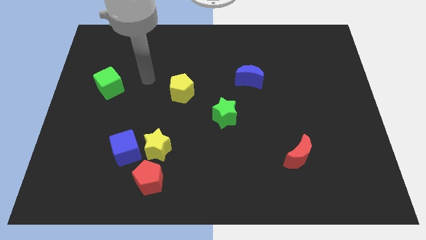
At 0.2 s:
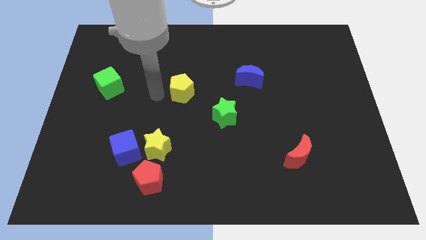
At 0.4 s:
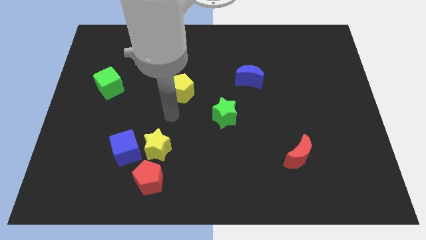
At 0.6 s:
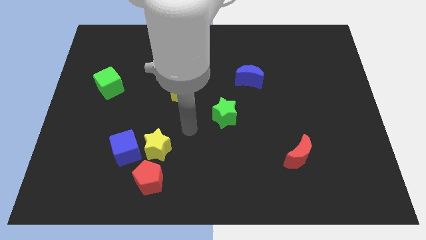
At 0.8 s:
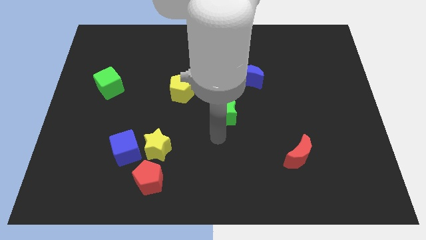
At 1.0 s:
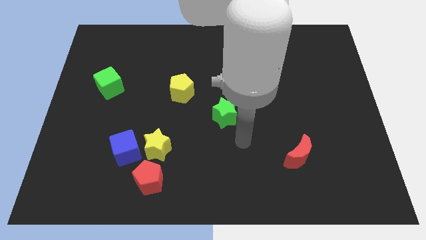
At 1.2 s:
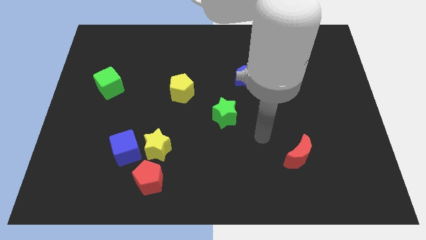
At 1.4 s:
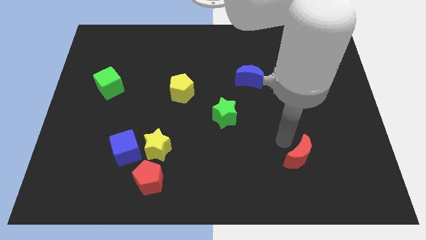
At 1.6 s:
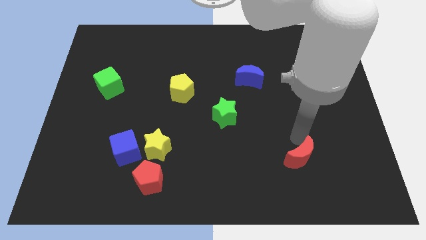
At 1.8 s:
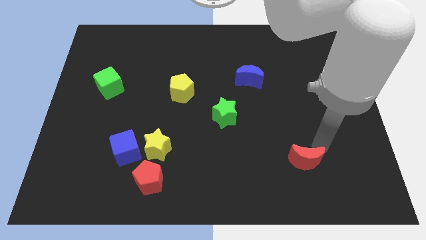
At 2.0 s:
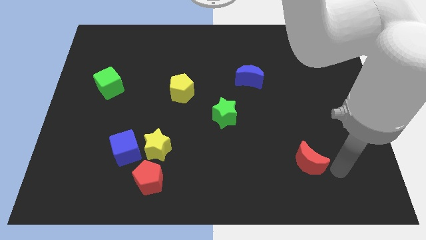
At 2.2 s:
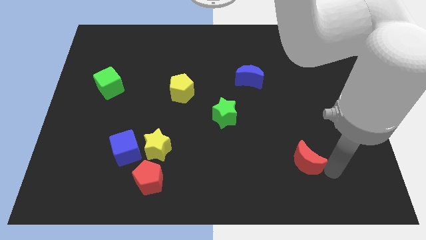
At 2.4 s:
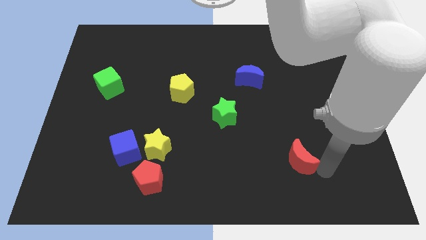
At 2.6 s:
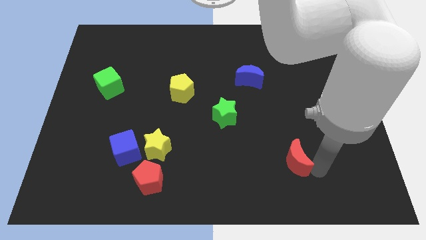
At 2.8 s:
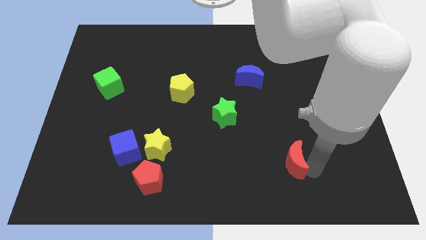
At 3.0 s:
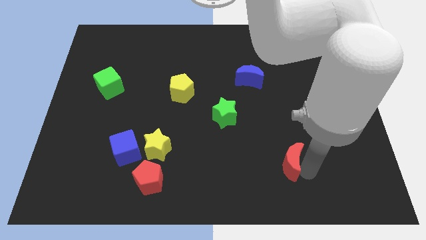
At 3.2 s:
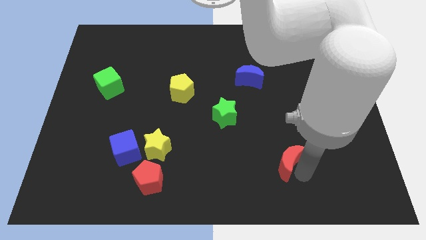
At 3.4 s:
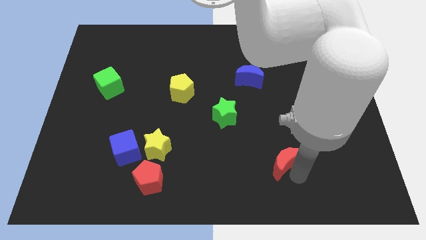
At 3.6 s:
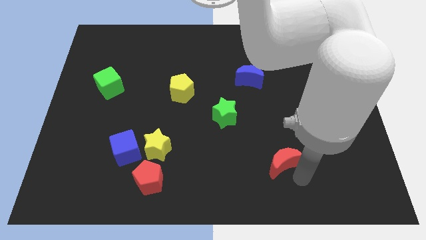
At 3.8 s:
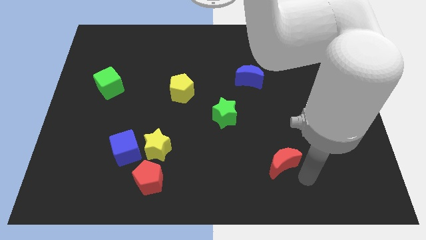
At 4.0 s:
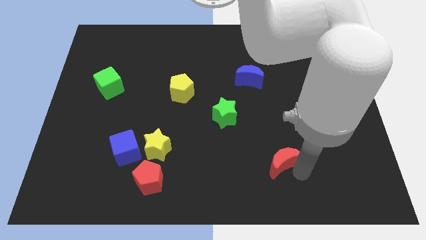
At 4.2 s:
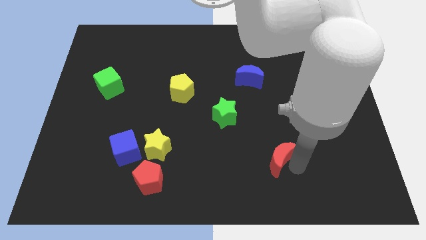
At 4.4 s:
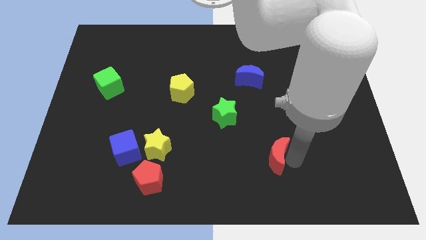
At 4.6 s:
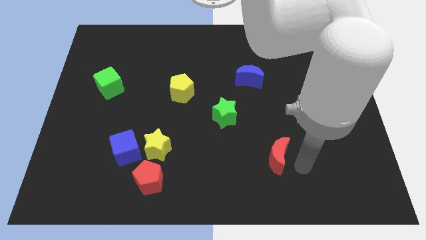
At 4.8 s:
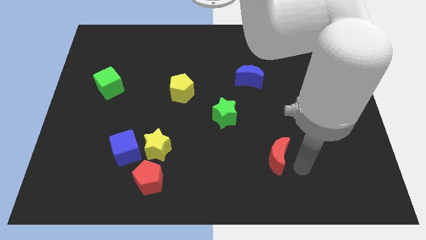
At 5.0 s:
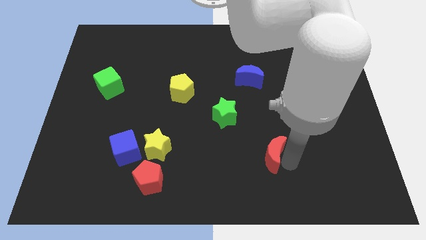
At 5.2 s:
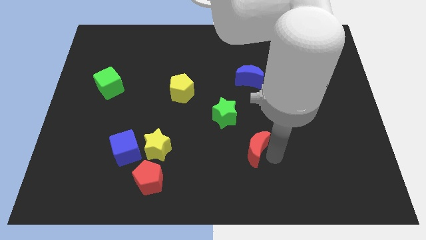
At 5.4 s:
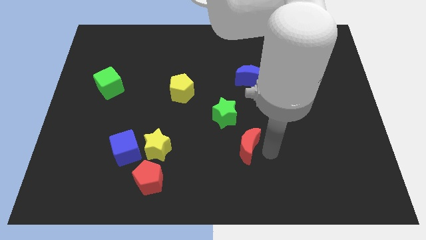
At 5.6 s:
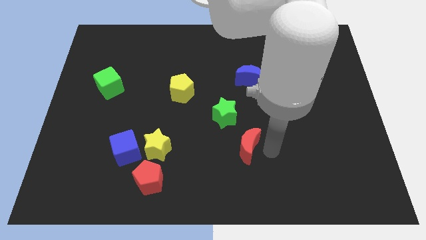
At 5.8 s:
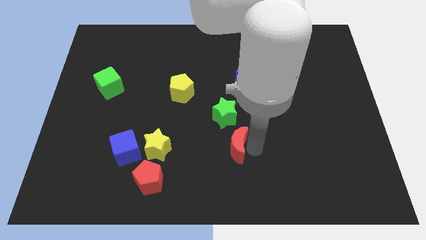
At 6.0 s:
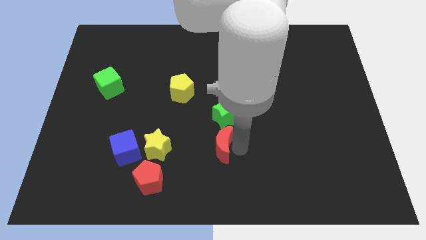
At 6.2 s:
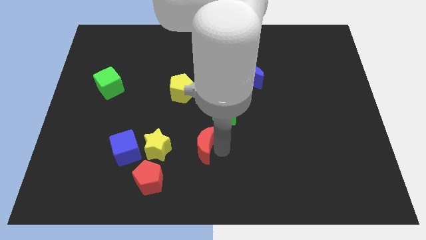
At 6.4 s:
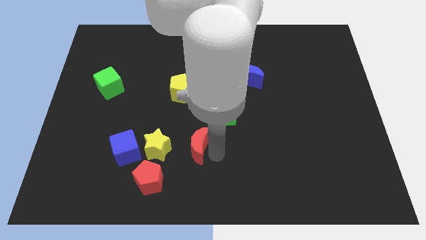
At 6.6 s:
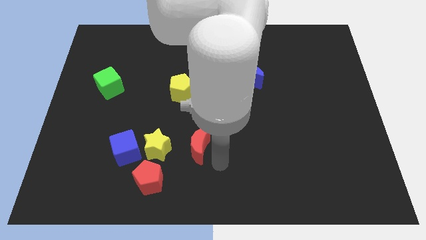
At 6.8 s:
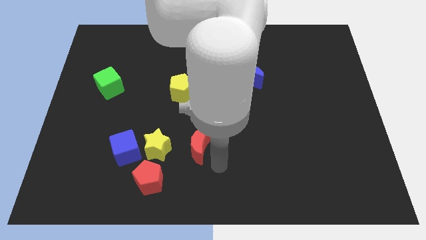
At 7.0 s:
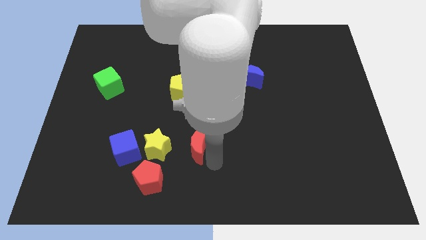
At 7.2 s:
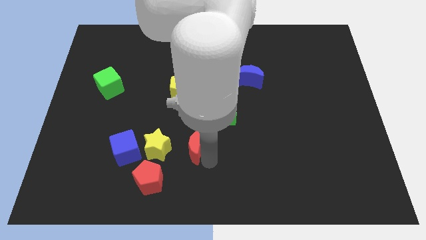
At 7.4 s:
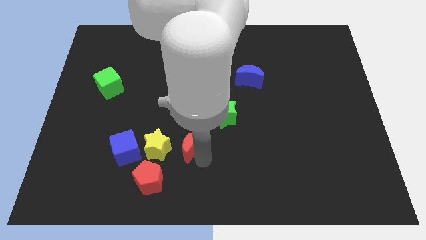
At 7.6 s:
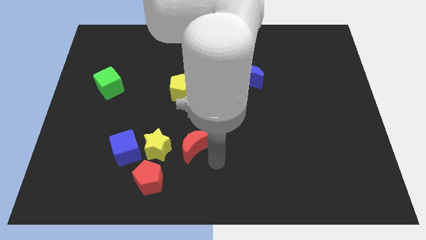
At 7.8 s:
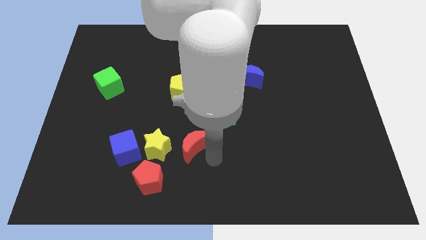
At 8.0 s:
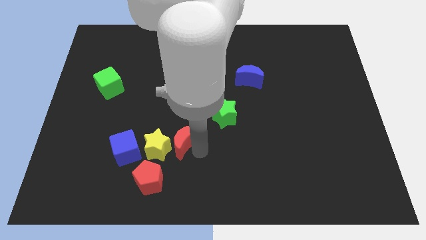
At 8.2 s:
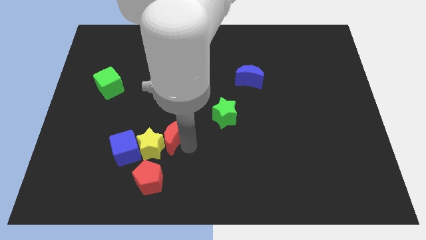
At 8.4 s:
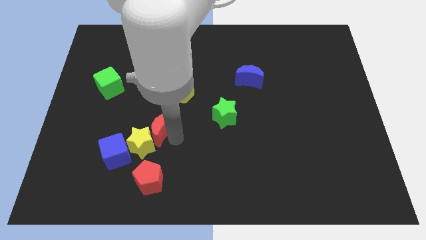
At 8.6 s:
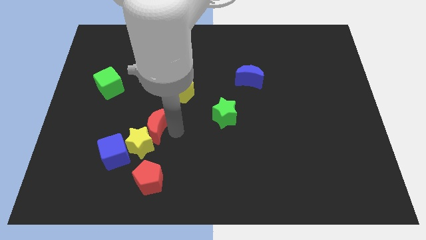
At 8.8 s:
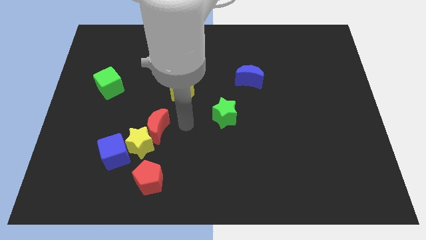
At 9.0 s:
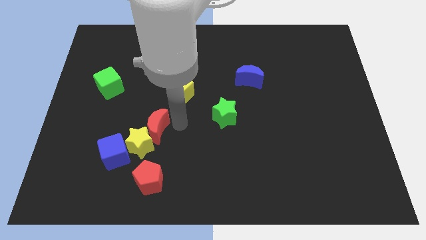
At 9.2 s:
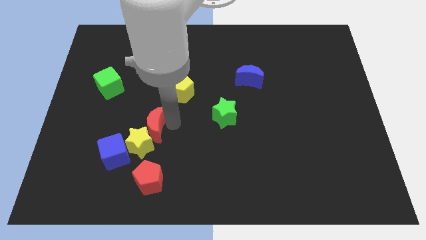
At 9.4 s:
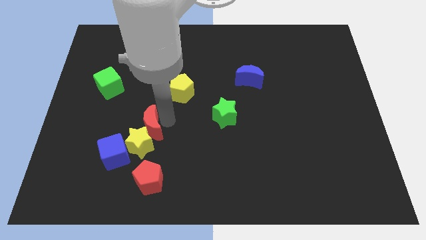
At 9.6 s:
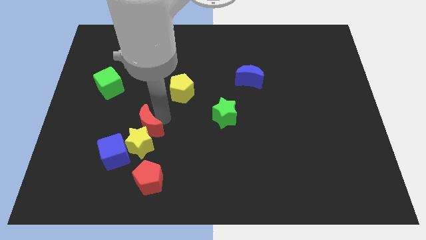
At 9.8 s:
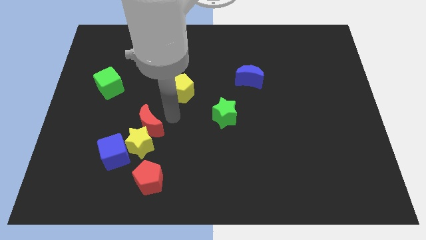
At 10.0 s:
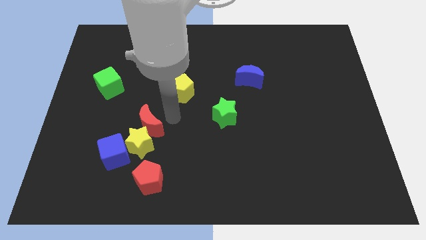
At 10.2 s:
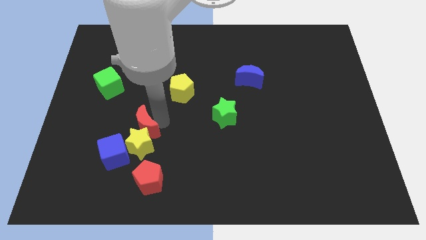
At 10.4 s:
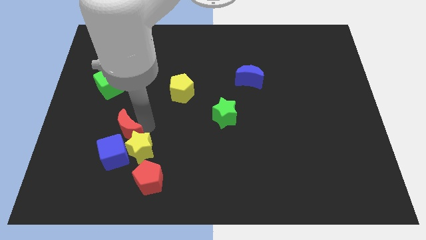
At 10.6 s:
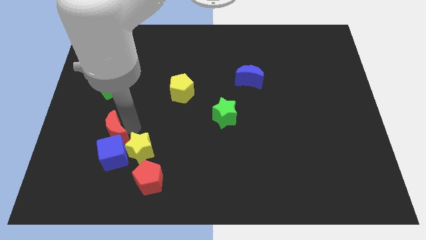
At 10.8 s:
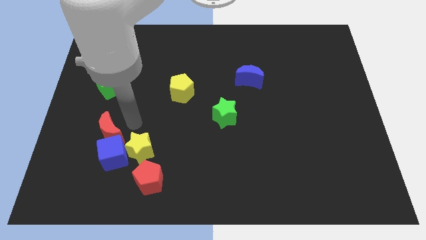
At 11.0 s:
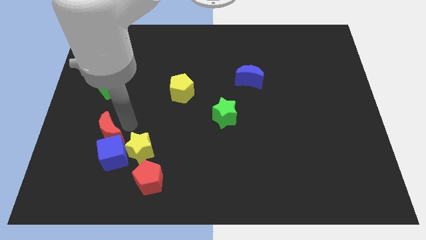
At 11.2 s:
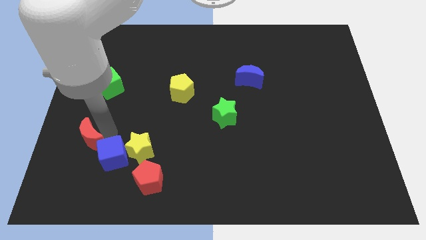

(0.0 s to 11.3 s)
slide the red moon left of the blue cube

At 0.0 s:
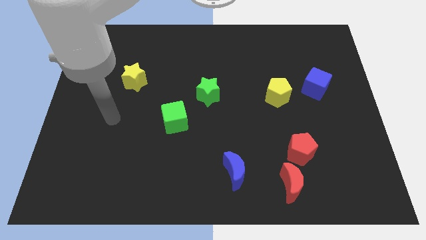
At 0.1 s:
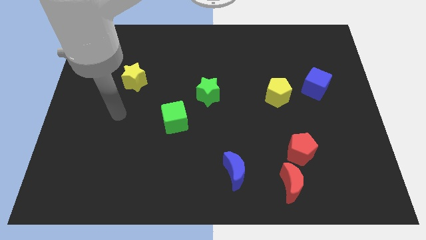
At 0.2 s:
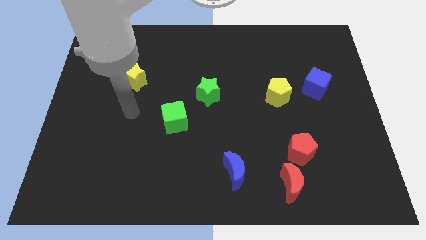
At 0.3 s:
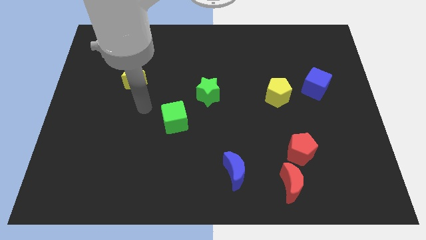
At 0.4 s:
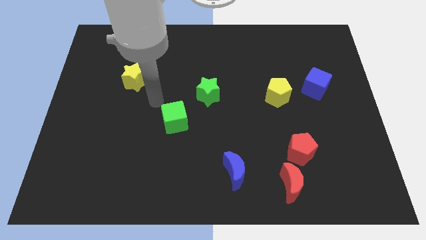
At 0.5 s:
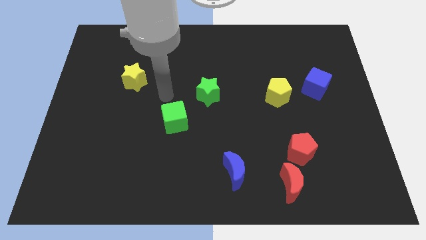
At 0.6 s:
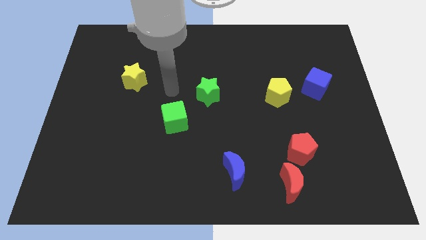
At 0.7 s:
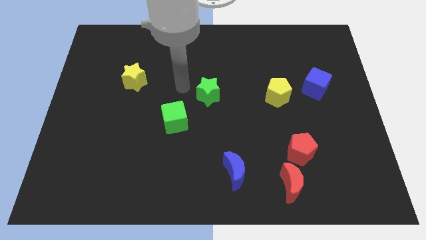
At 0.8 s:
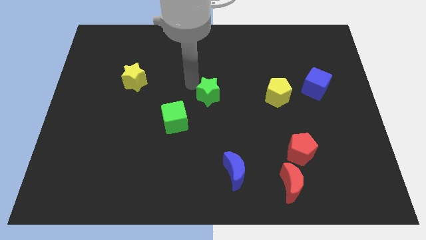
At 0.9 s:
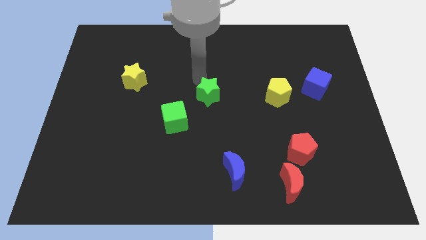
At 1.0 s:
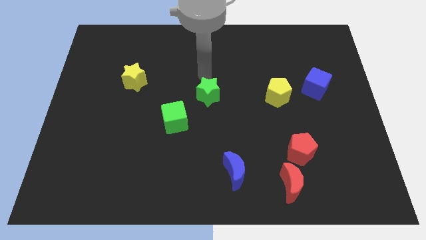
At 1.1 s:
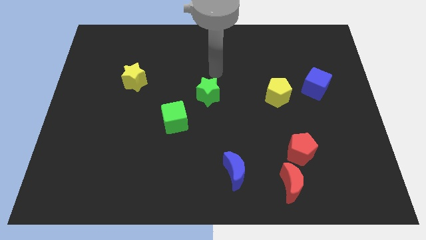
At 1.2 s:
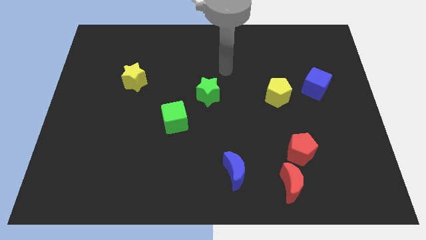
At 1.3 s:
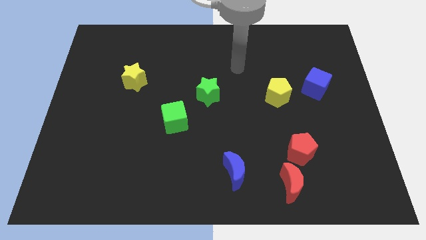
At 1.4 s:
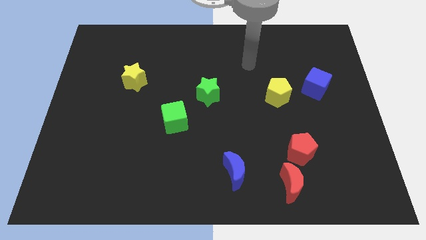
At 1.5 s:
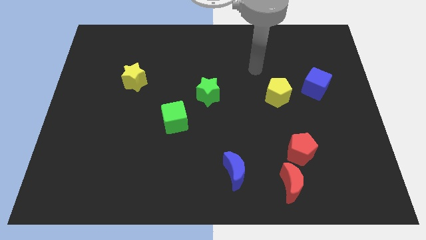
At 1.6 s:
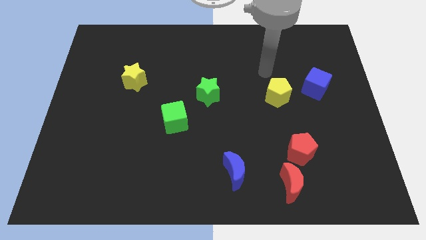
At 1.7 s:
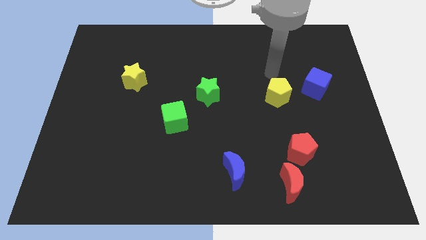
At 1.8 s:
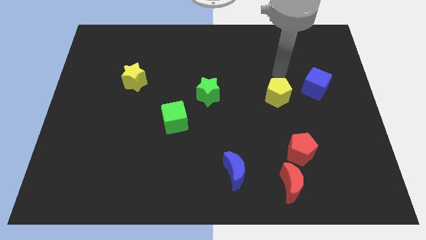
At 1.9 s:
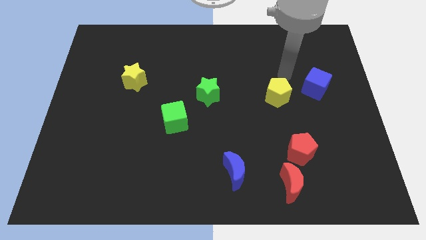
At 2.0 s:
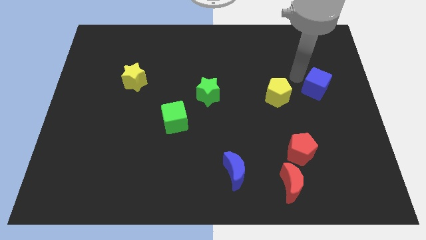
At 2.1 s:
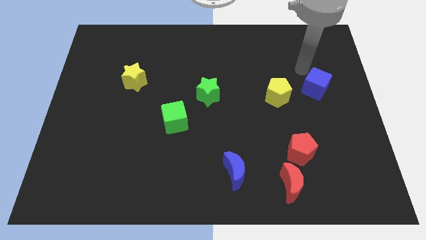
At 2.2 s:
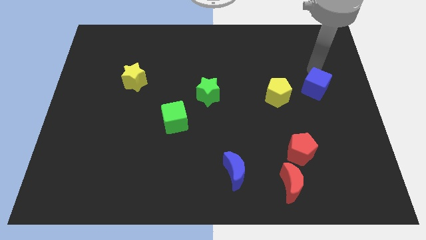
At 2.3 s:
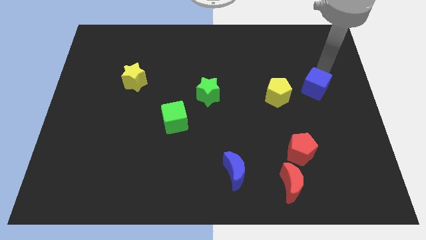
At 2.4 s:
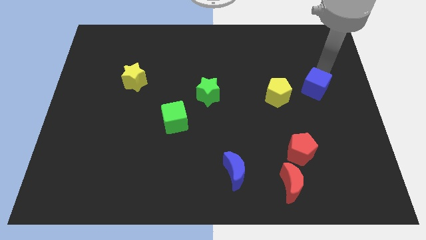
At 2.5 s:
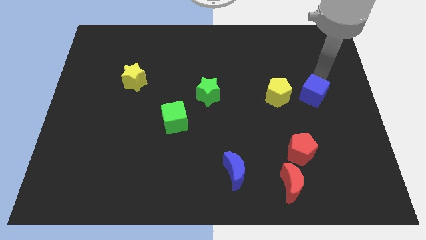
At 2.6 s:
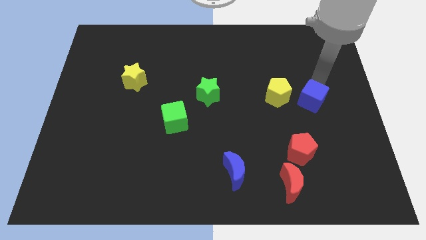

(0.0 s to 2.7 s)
put the blue cube to the bottom right side of the yellow pentagon

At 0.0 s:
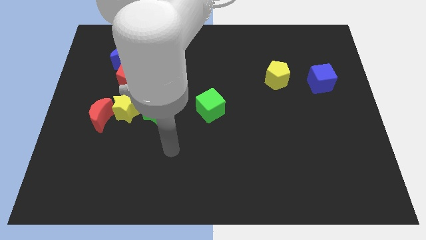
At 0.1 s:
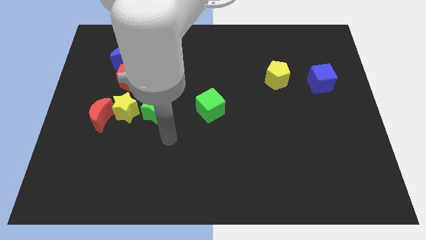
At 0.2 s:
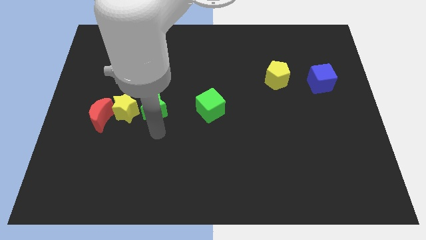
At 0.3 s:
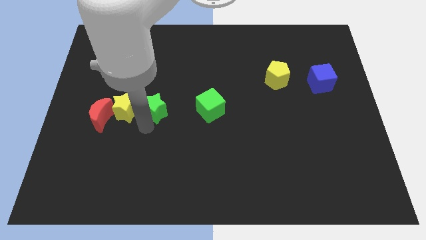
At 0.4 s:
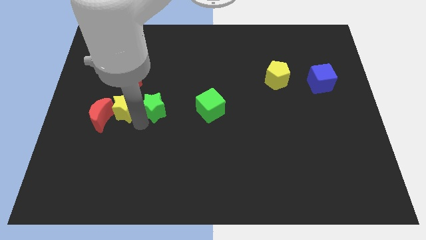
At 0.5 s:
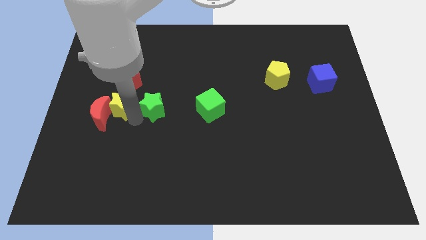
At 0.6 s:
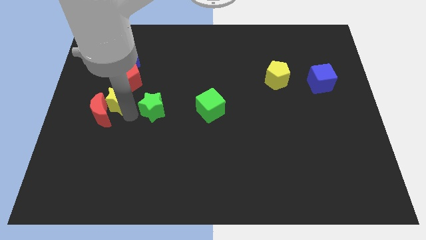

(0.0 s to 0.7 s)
slide the yellow star to the bottom left side of the red pentagon
